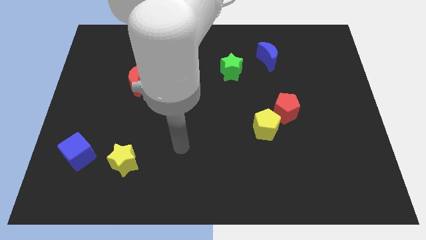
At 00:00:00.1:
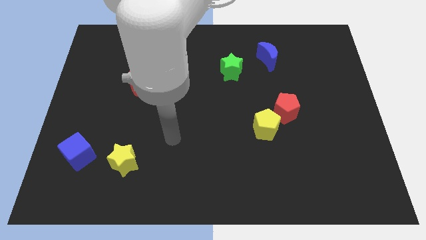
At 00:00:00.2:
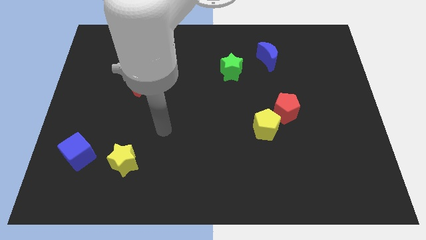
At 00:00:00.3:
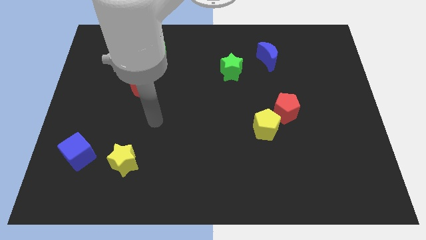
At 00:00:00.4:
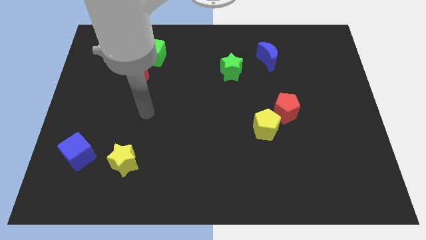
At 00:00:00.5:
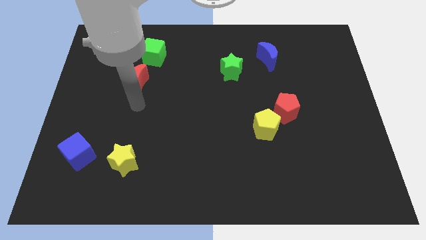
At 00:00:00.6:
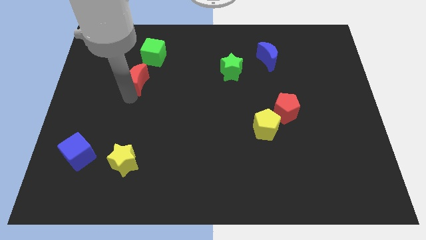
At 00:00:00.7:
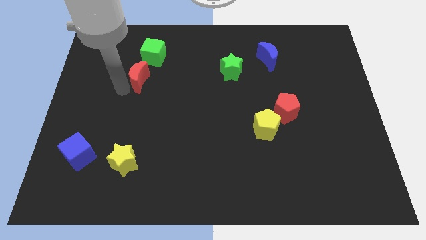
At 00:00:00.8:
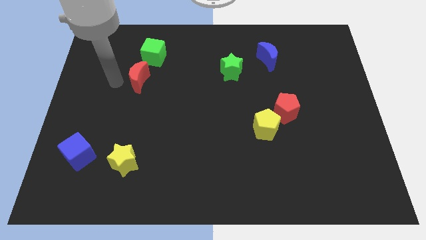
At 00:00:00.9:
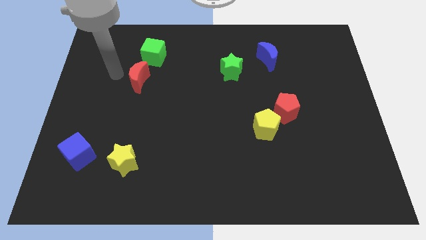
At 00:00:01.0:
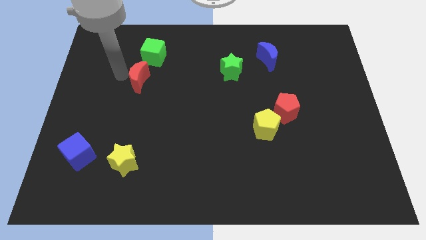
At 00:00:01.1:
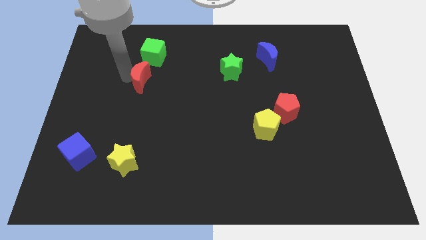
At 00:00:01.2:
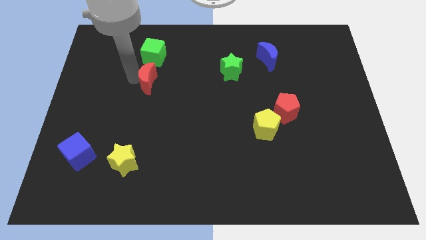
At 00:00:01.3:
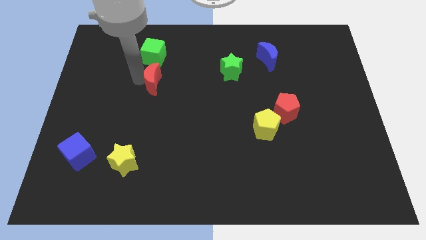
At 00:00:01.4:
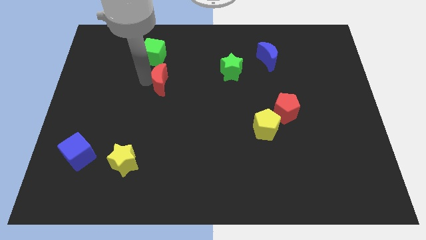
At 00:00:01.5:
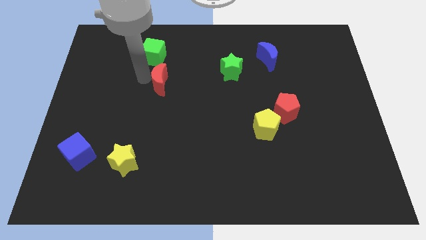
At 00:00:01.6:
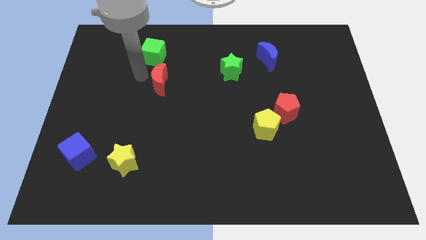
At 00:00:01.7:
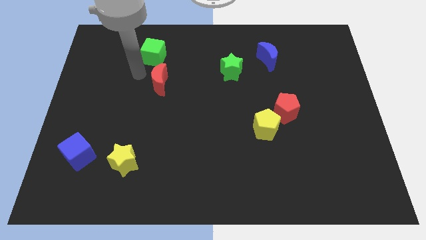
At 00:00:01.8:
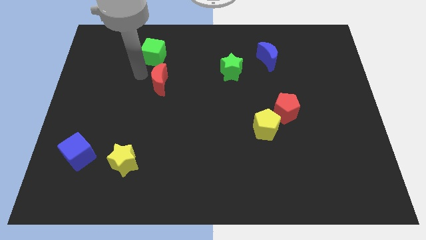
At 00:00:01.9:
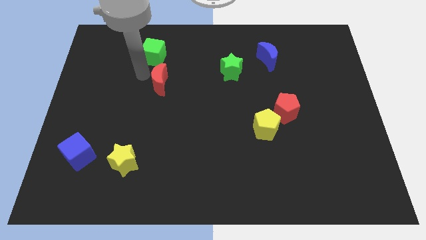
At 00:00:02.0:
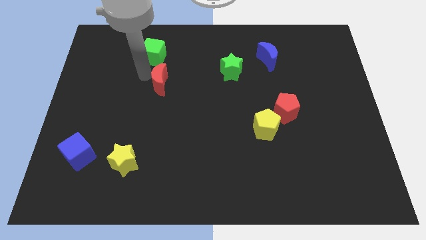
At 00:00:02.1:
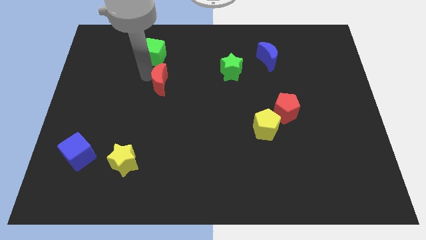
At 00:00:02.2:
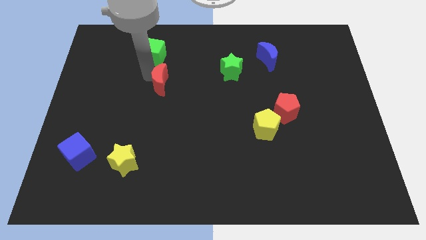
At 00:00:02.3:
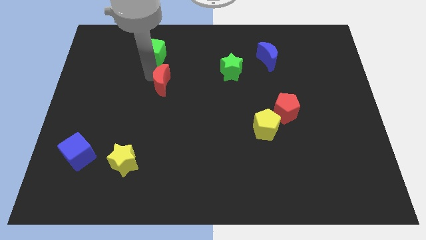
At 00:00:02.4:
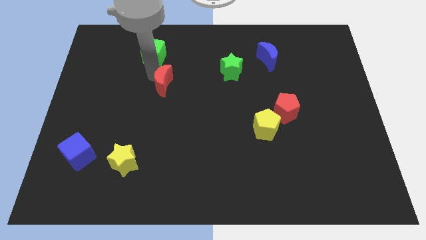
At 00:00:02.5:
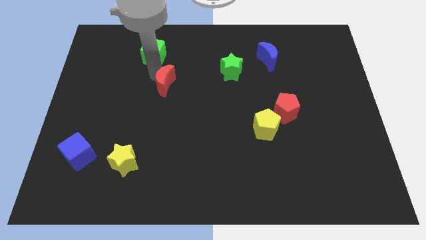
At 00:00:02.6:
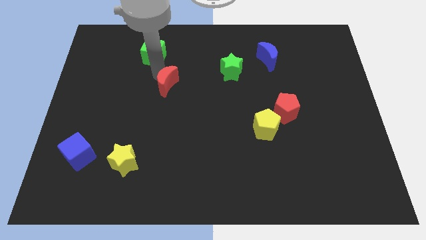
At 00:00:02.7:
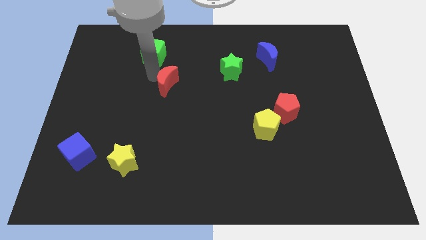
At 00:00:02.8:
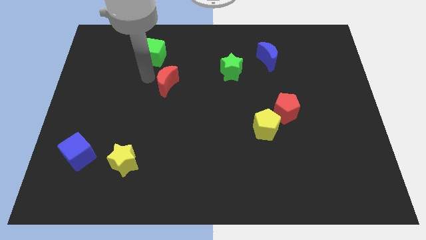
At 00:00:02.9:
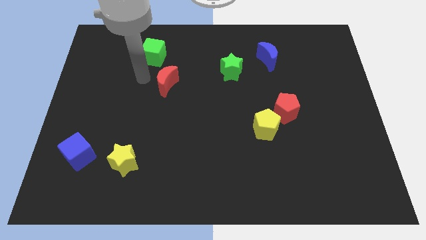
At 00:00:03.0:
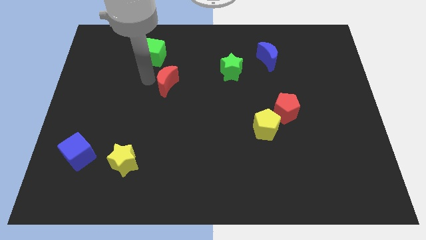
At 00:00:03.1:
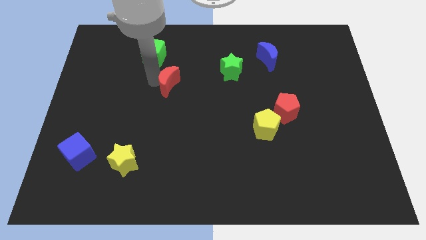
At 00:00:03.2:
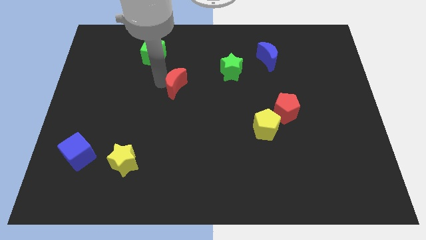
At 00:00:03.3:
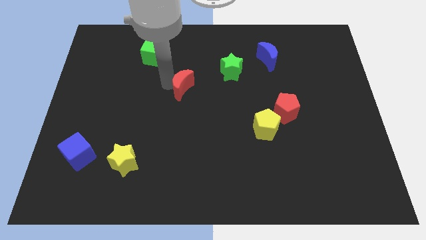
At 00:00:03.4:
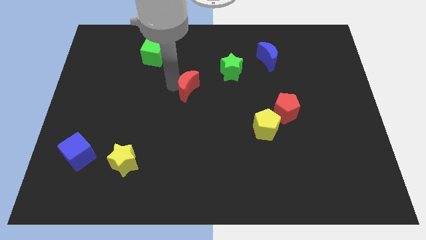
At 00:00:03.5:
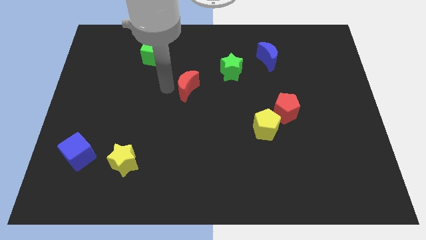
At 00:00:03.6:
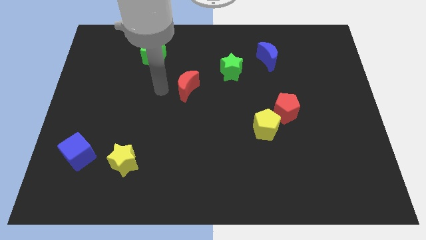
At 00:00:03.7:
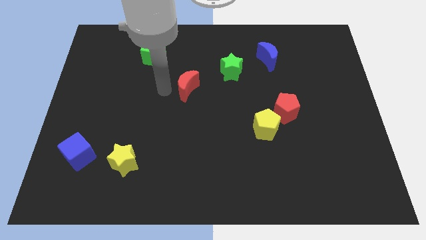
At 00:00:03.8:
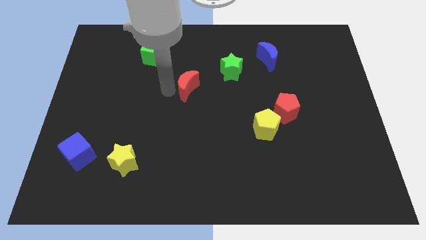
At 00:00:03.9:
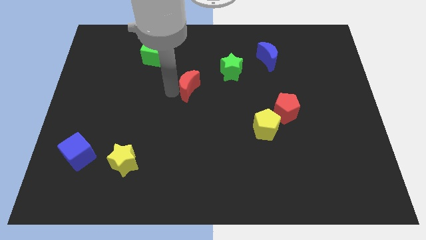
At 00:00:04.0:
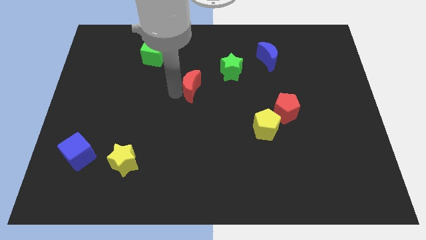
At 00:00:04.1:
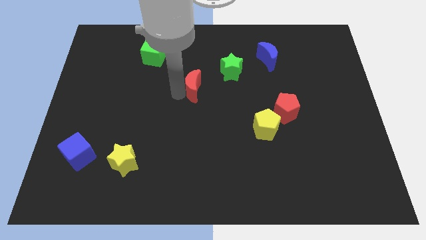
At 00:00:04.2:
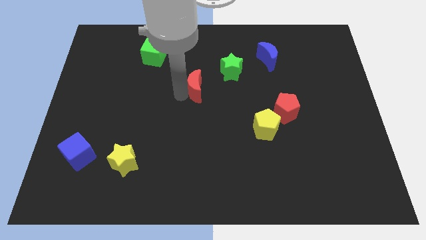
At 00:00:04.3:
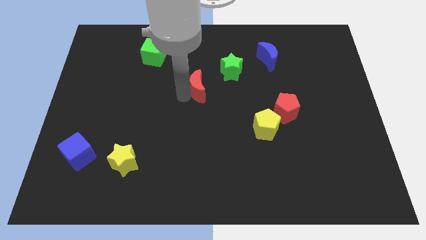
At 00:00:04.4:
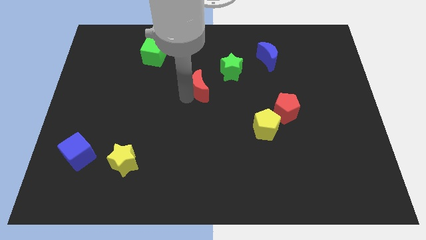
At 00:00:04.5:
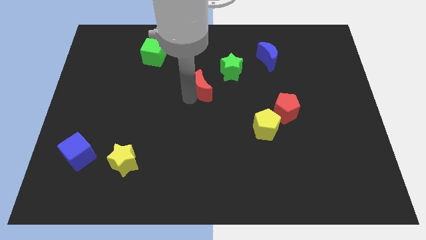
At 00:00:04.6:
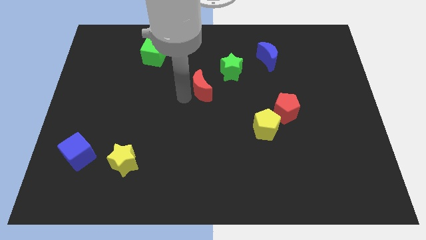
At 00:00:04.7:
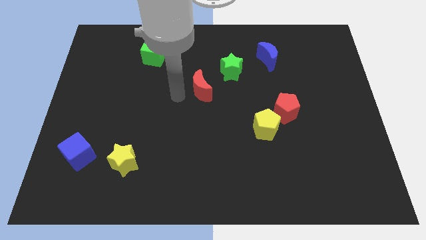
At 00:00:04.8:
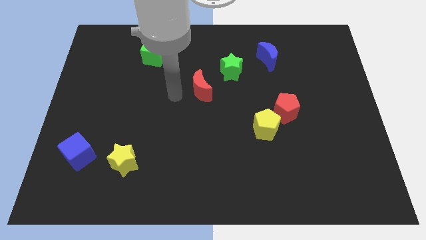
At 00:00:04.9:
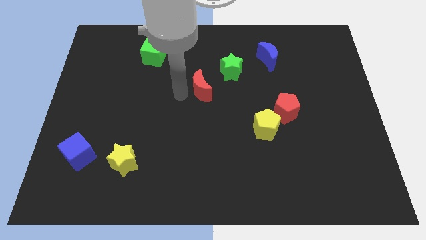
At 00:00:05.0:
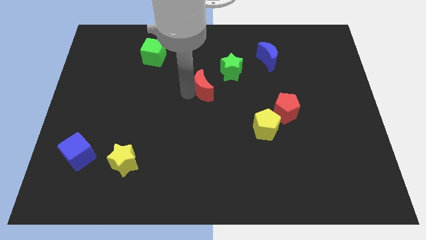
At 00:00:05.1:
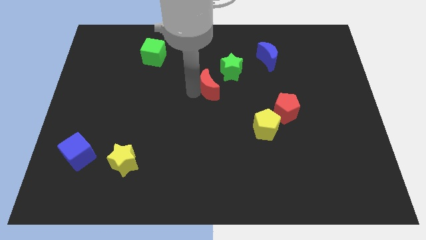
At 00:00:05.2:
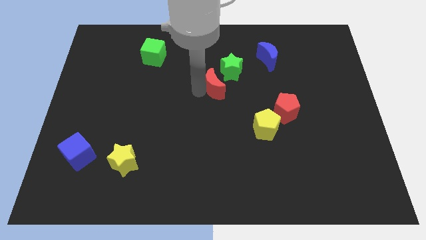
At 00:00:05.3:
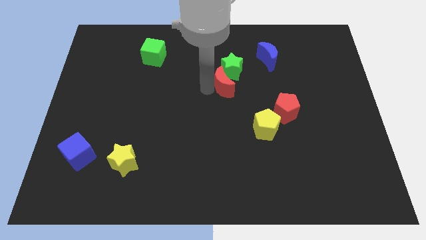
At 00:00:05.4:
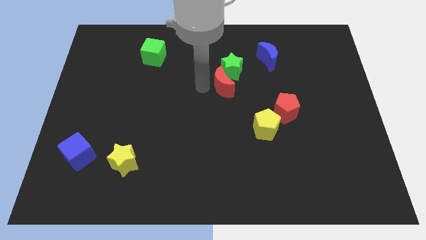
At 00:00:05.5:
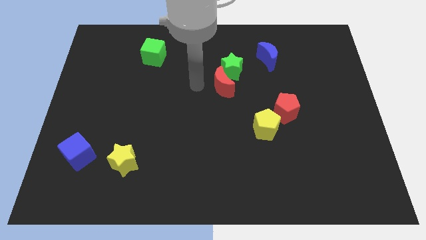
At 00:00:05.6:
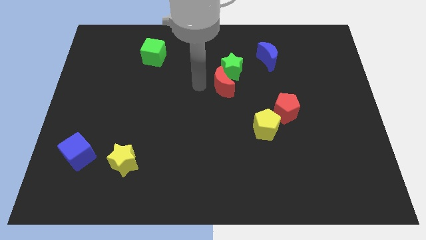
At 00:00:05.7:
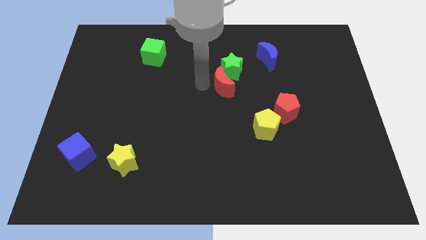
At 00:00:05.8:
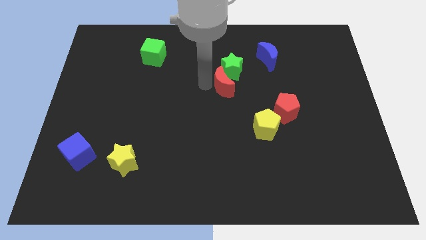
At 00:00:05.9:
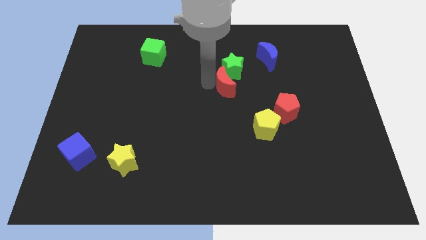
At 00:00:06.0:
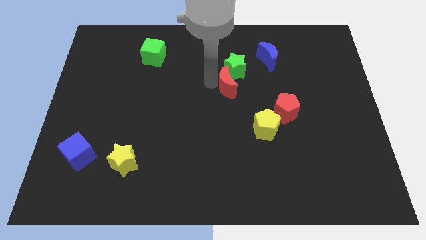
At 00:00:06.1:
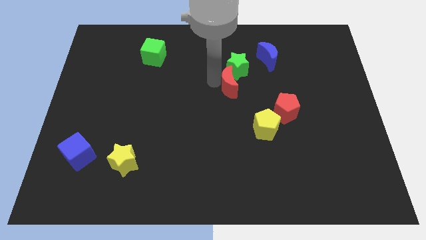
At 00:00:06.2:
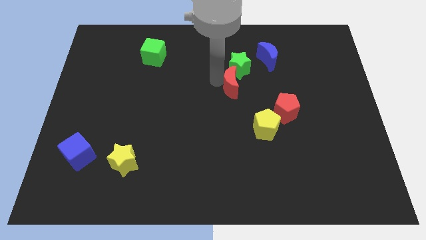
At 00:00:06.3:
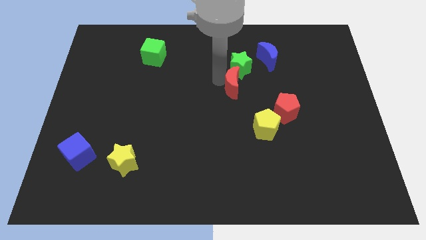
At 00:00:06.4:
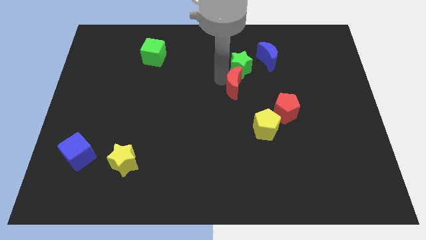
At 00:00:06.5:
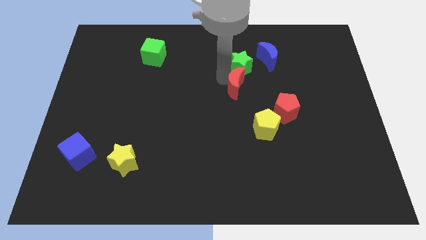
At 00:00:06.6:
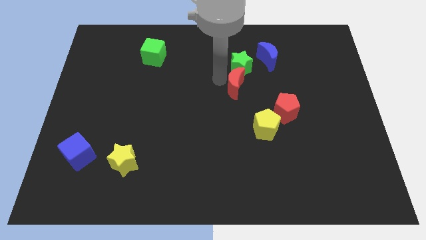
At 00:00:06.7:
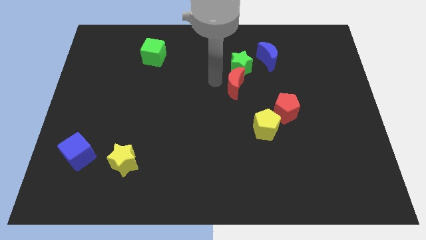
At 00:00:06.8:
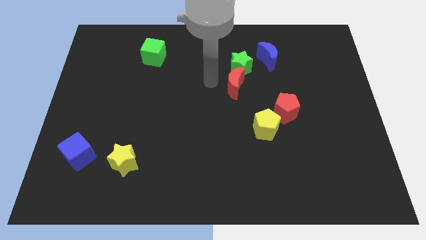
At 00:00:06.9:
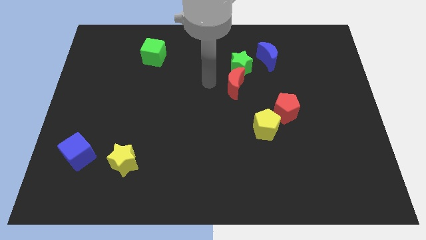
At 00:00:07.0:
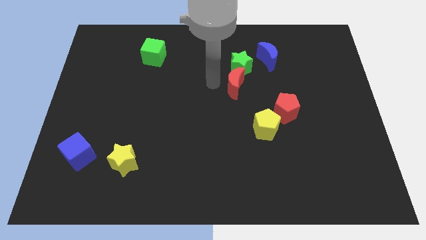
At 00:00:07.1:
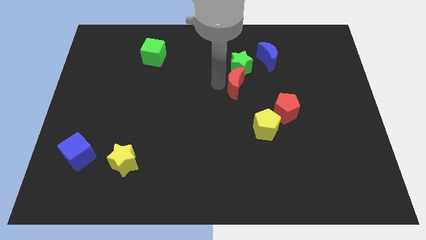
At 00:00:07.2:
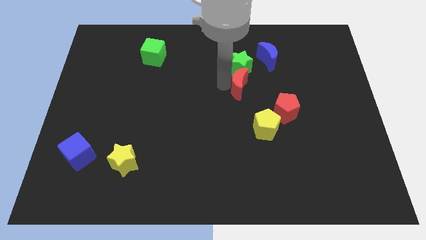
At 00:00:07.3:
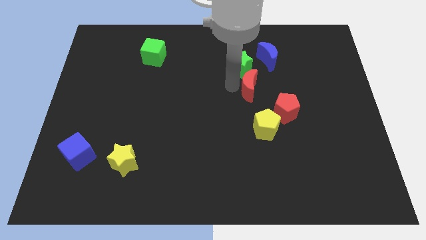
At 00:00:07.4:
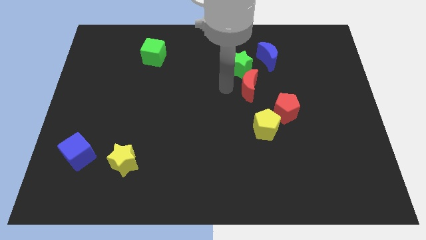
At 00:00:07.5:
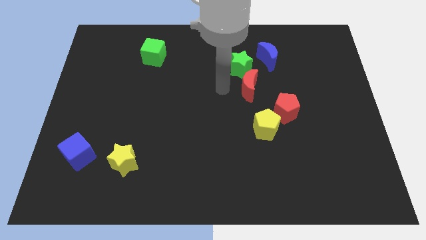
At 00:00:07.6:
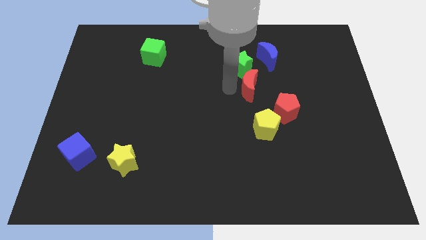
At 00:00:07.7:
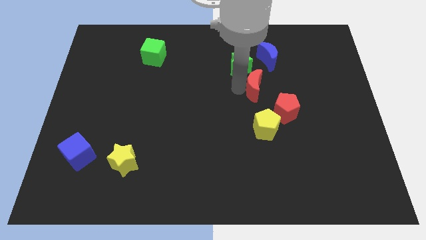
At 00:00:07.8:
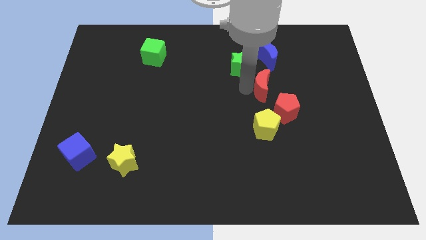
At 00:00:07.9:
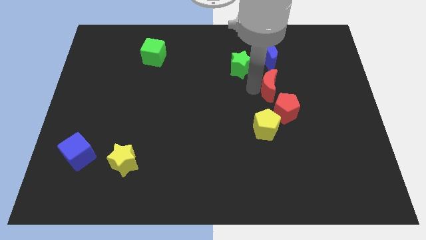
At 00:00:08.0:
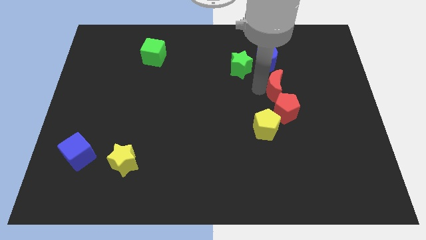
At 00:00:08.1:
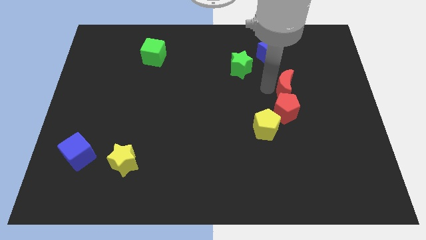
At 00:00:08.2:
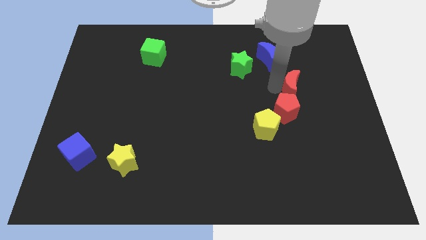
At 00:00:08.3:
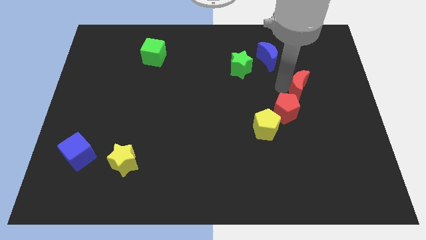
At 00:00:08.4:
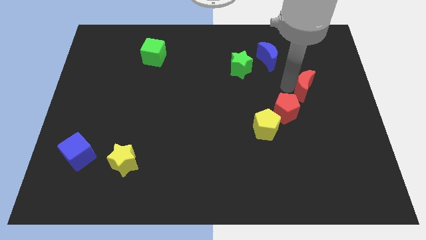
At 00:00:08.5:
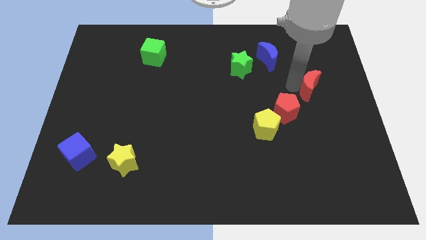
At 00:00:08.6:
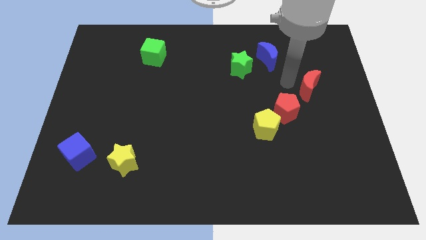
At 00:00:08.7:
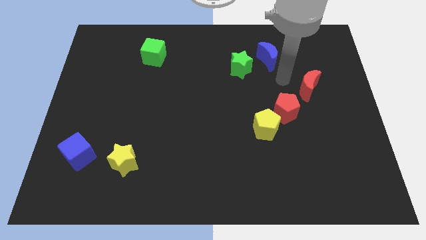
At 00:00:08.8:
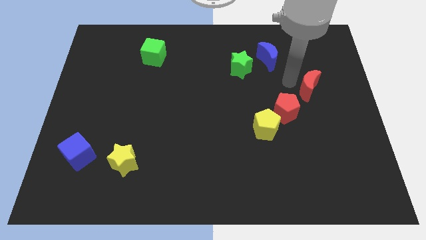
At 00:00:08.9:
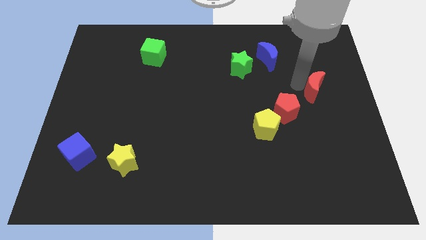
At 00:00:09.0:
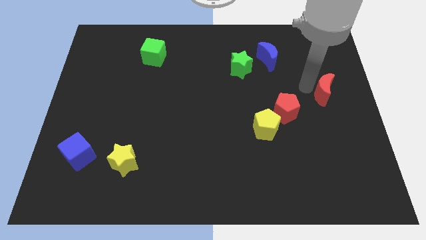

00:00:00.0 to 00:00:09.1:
push the red moon to the right side of the board
